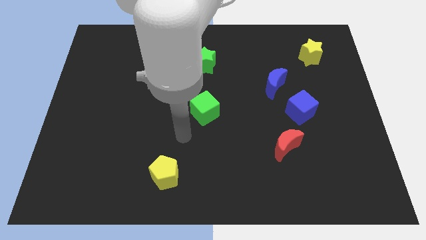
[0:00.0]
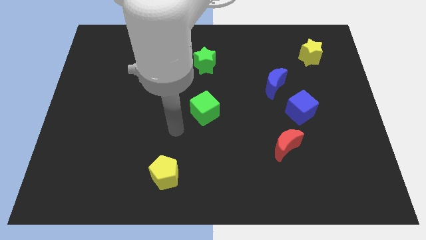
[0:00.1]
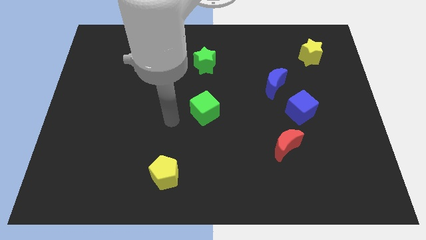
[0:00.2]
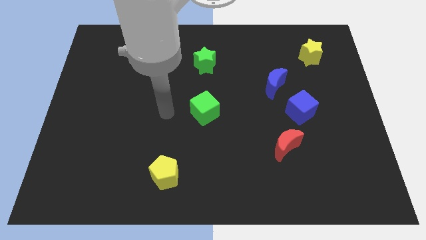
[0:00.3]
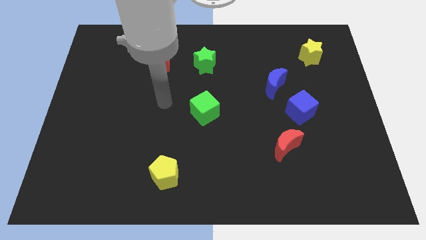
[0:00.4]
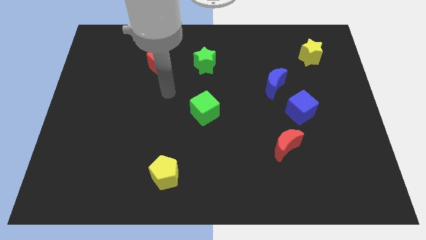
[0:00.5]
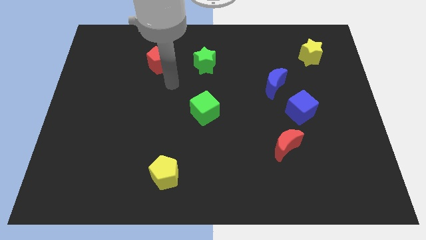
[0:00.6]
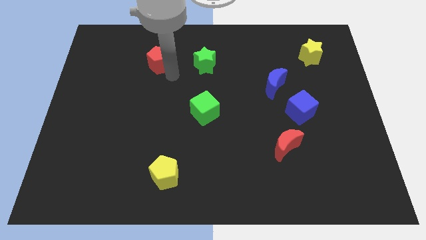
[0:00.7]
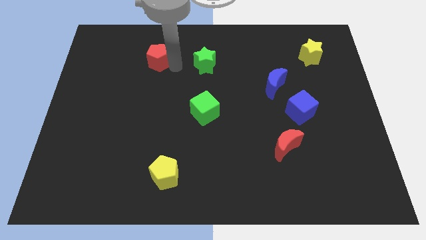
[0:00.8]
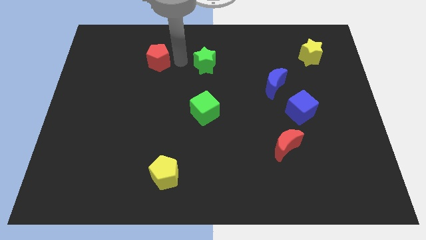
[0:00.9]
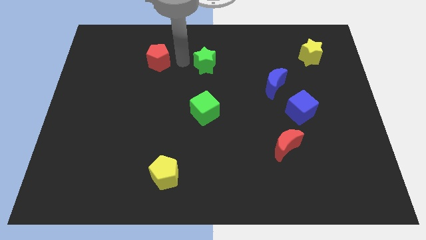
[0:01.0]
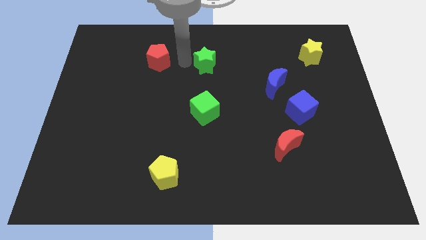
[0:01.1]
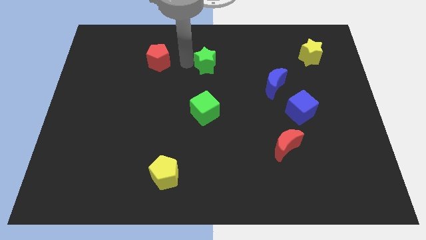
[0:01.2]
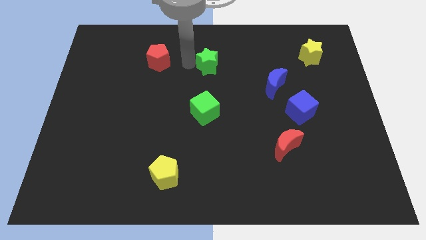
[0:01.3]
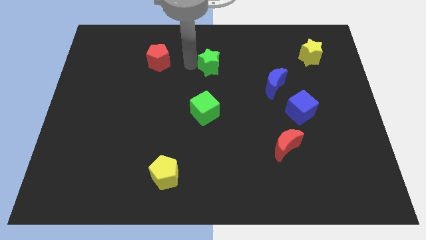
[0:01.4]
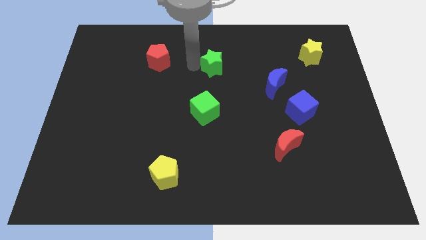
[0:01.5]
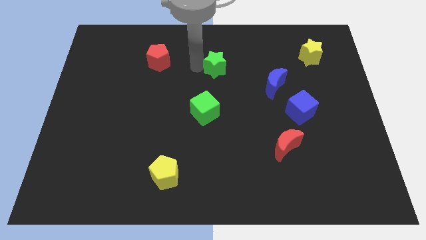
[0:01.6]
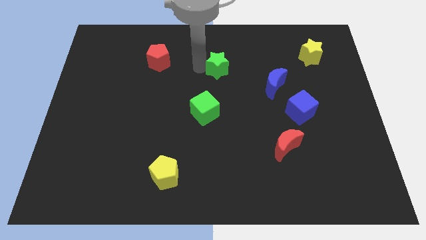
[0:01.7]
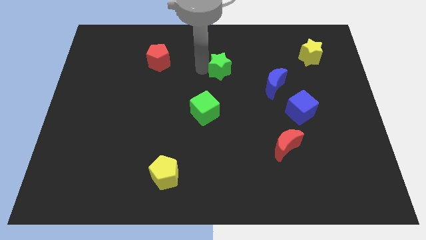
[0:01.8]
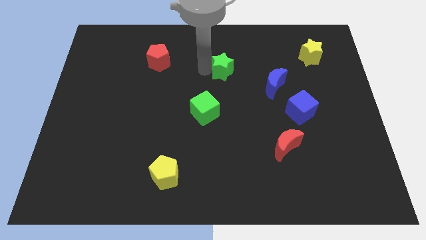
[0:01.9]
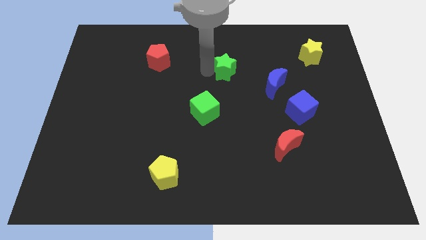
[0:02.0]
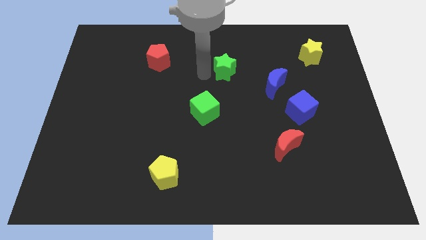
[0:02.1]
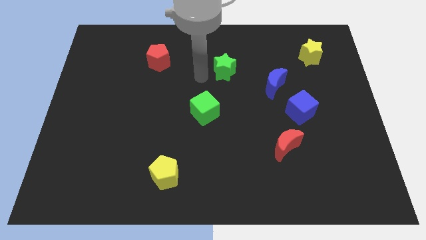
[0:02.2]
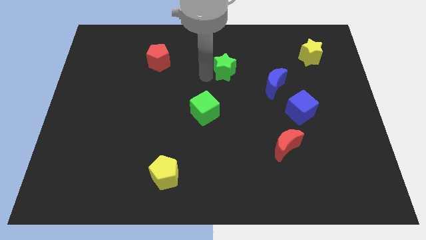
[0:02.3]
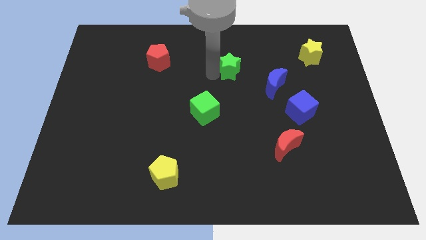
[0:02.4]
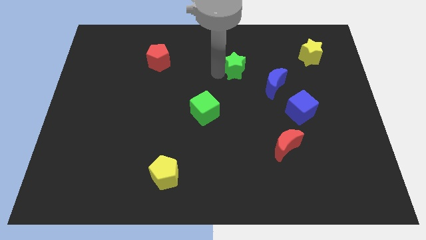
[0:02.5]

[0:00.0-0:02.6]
slightly move the green star to the right

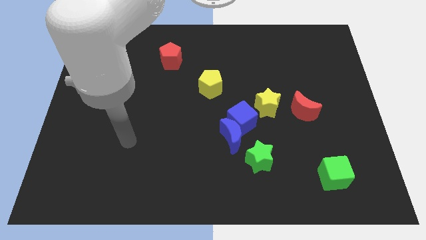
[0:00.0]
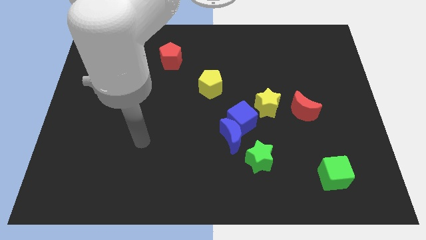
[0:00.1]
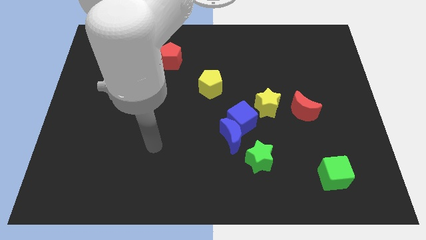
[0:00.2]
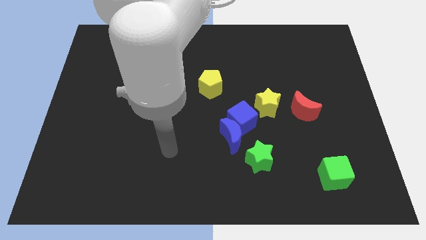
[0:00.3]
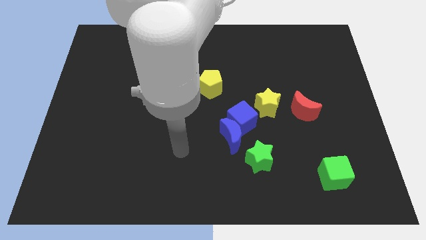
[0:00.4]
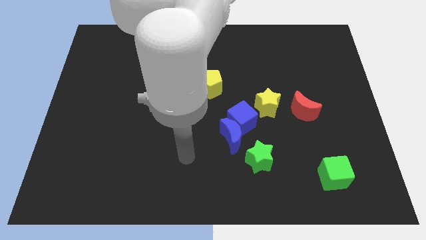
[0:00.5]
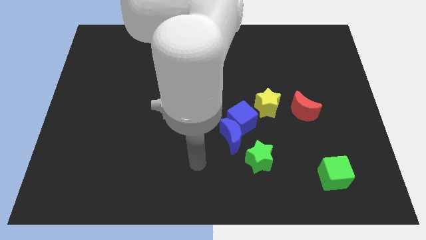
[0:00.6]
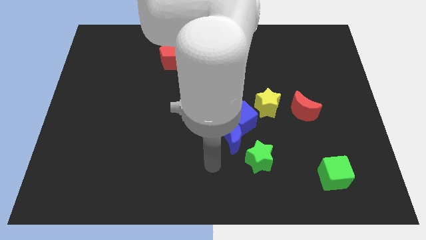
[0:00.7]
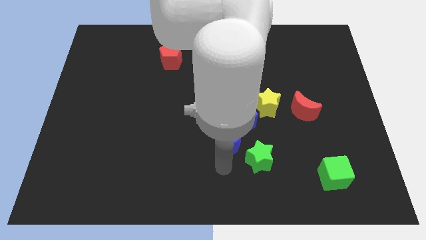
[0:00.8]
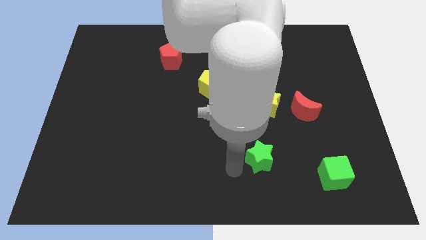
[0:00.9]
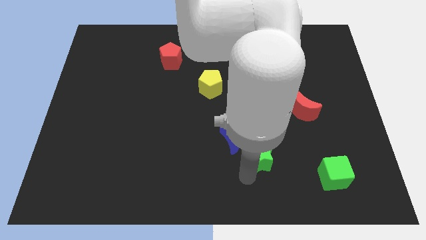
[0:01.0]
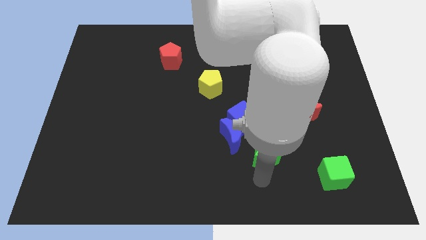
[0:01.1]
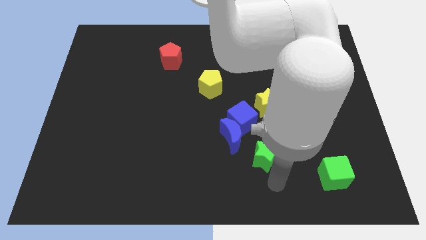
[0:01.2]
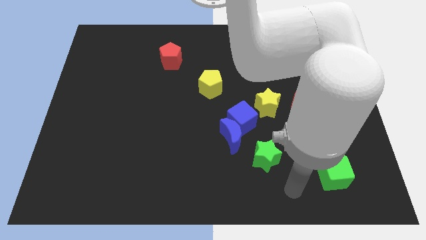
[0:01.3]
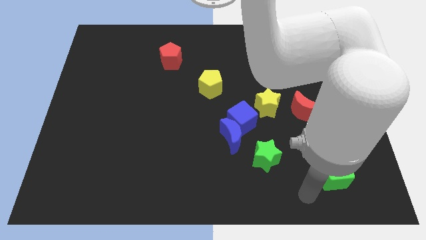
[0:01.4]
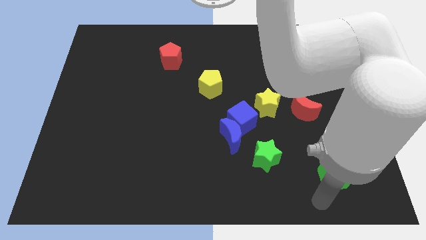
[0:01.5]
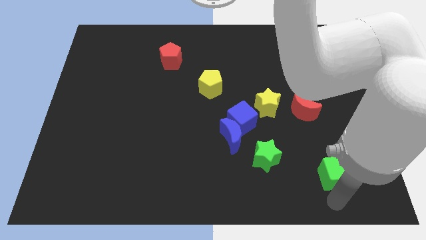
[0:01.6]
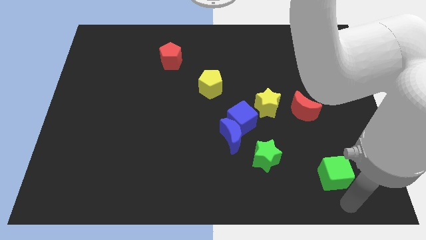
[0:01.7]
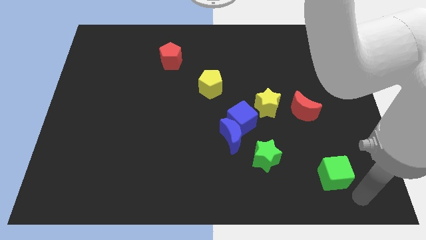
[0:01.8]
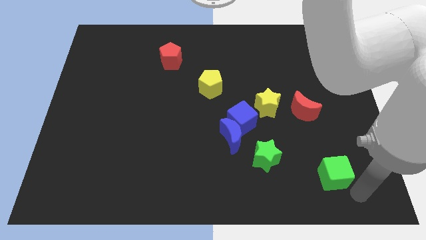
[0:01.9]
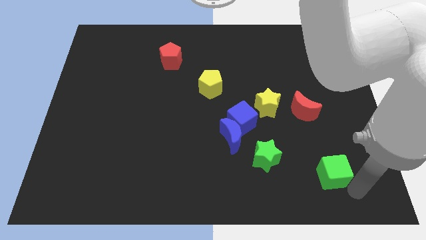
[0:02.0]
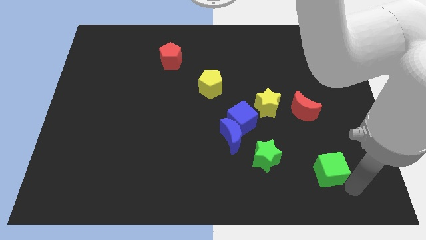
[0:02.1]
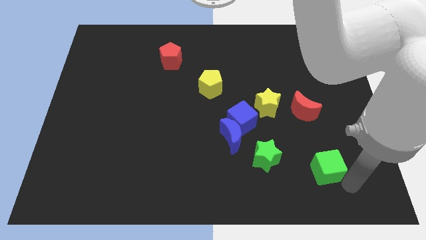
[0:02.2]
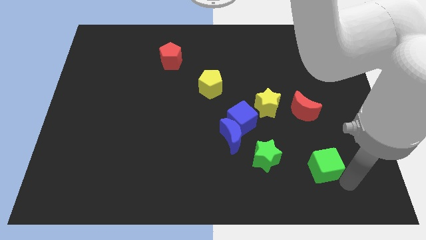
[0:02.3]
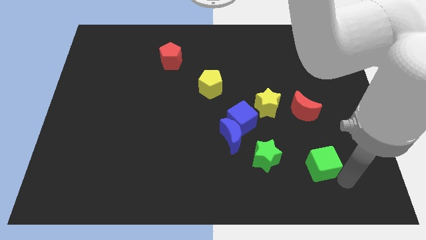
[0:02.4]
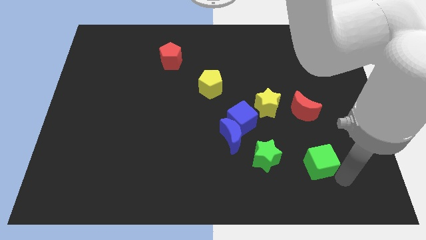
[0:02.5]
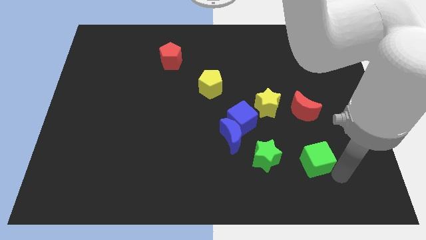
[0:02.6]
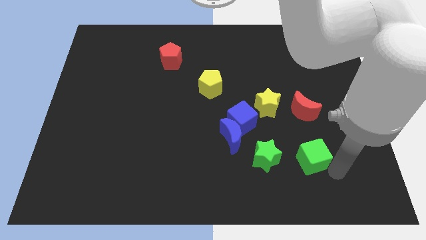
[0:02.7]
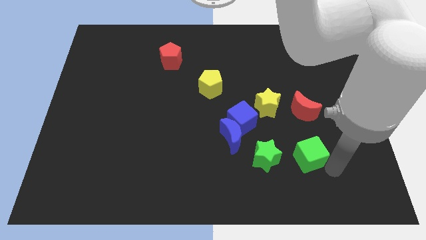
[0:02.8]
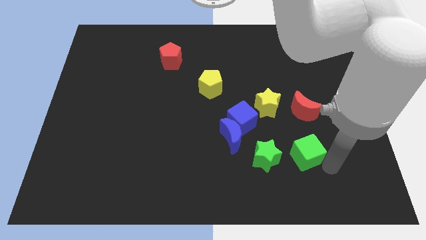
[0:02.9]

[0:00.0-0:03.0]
slightly push the green cube up and then to the left

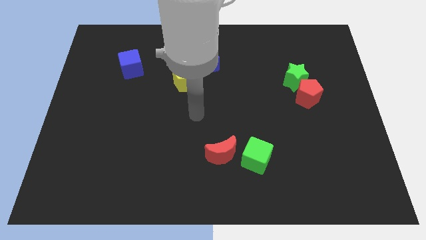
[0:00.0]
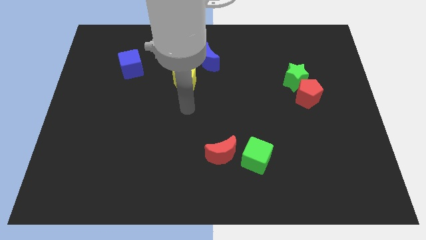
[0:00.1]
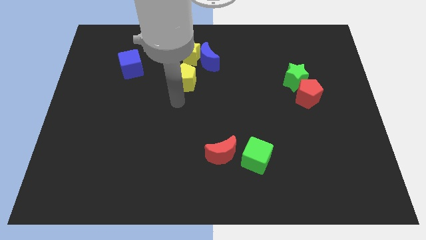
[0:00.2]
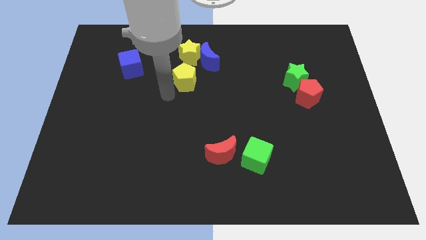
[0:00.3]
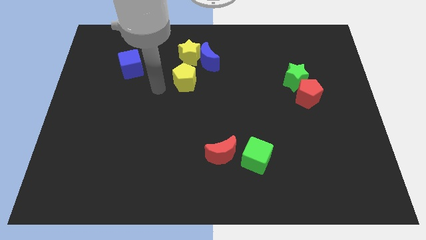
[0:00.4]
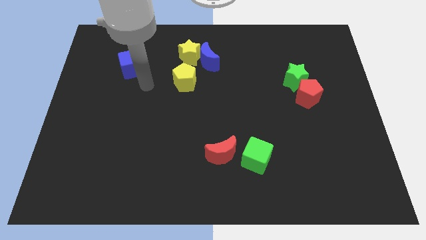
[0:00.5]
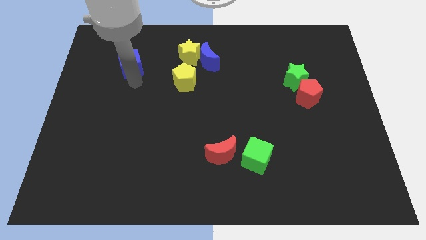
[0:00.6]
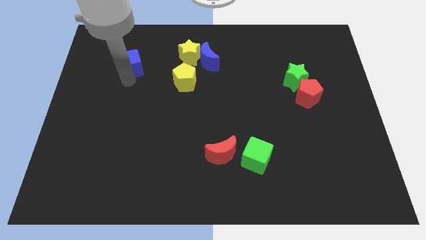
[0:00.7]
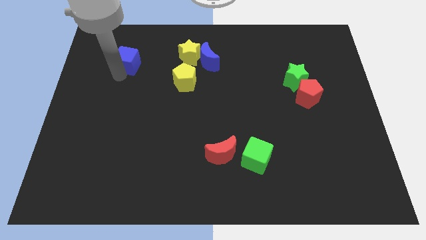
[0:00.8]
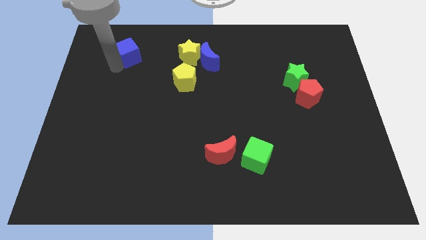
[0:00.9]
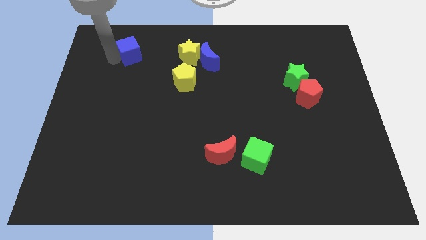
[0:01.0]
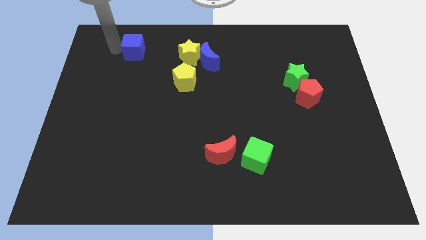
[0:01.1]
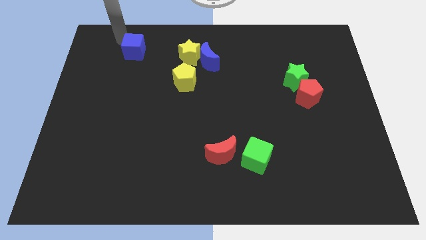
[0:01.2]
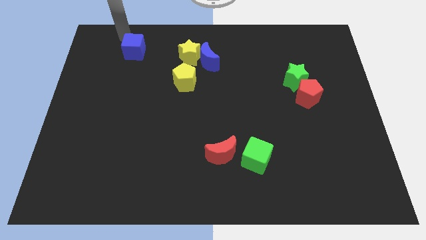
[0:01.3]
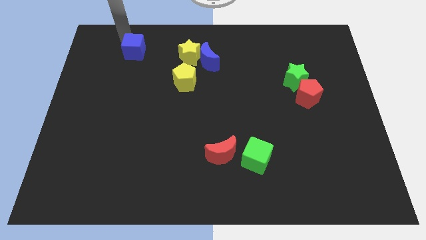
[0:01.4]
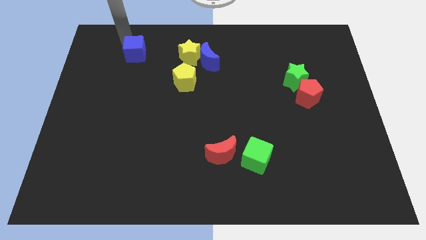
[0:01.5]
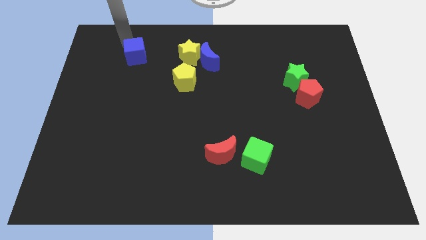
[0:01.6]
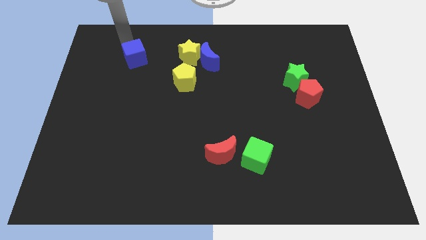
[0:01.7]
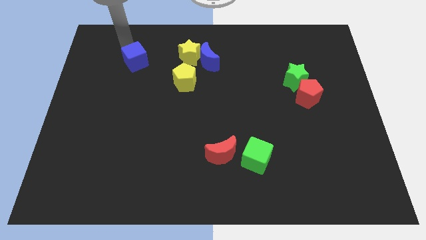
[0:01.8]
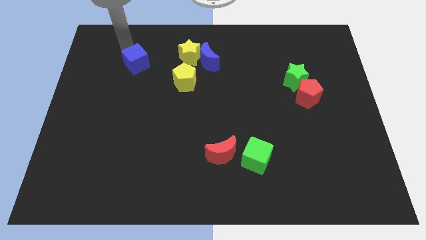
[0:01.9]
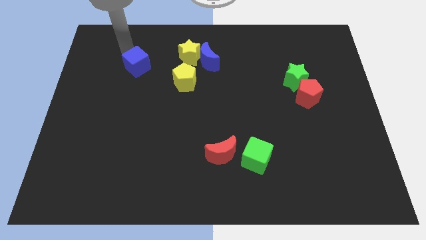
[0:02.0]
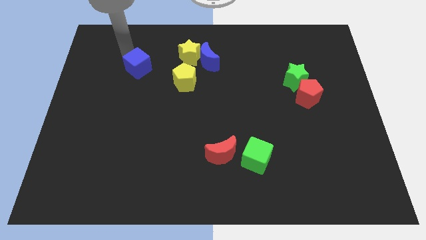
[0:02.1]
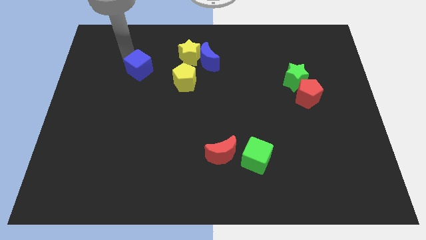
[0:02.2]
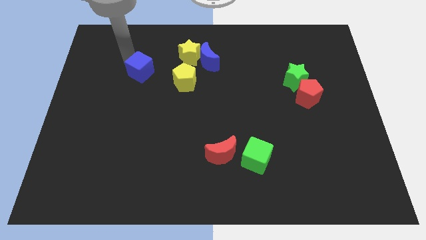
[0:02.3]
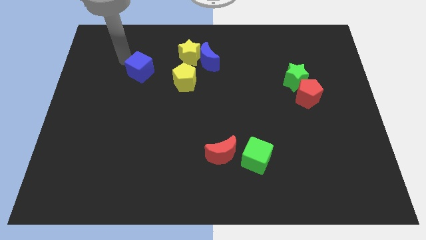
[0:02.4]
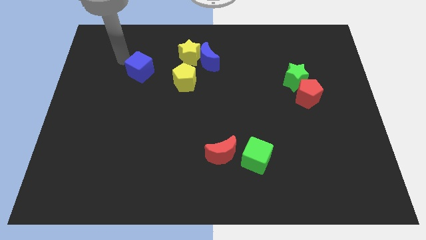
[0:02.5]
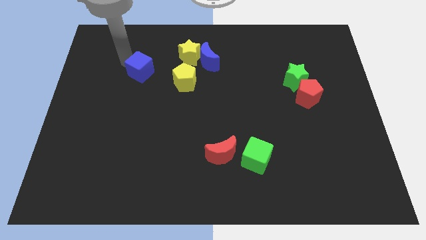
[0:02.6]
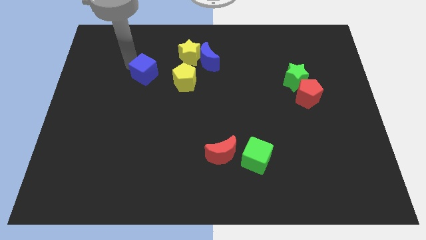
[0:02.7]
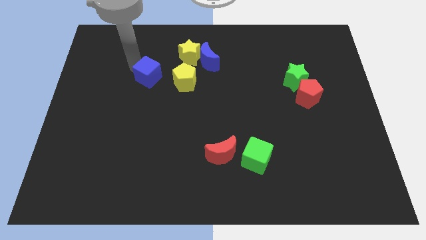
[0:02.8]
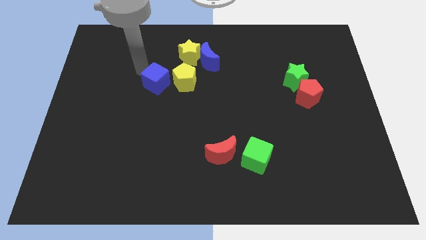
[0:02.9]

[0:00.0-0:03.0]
push the blue cube down and to the right a bit
